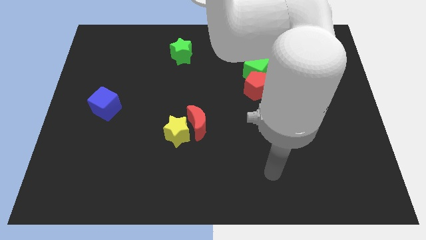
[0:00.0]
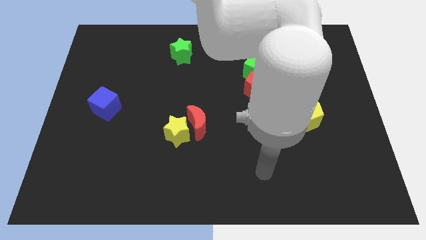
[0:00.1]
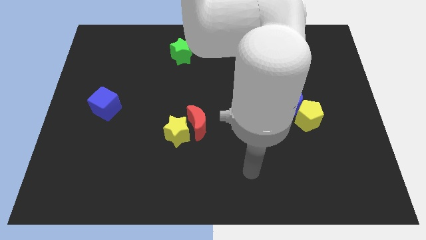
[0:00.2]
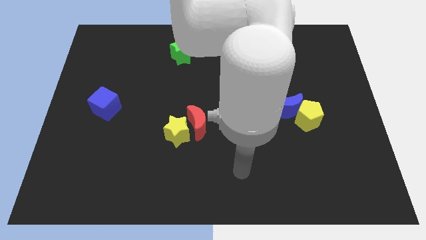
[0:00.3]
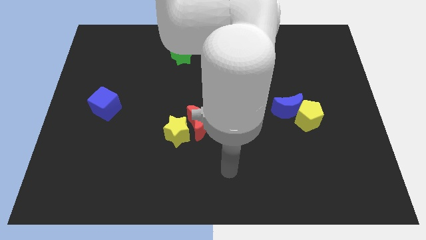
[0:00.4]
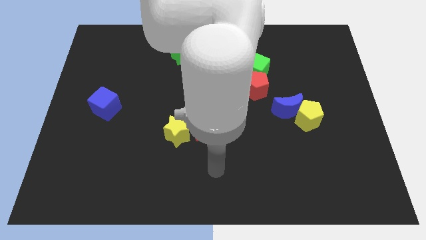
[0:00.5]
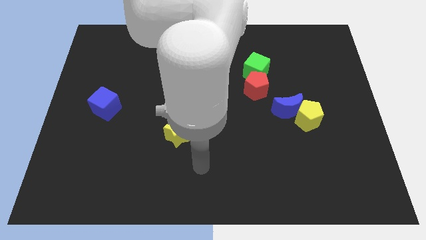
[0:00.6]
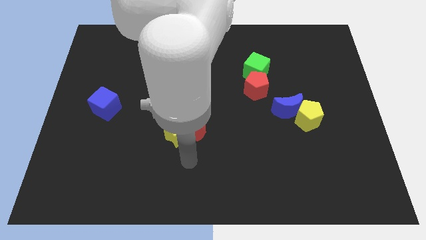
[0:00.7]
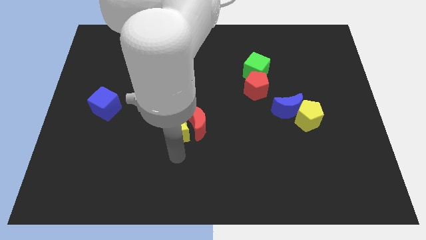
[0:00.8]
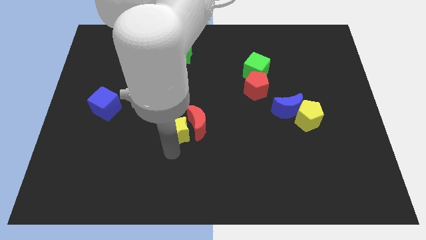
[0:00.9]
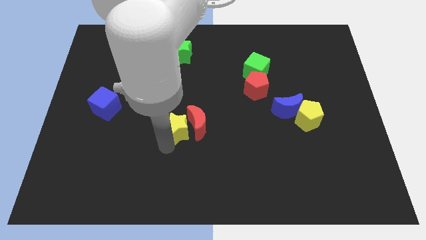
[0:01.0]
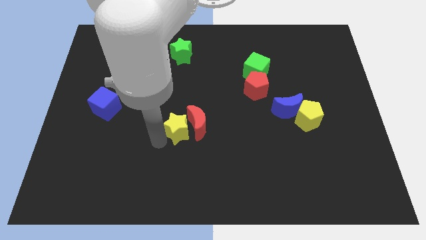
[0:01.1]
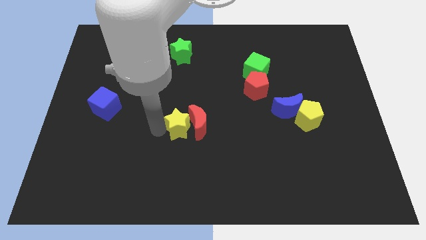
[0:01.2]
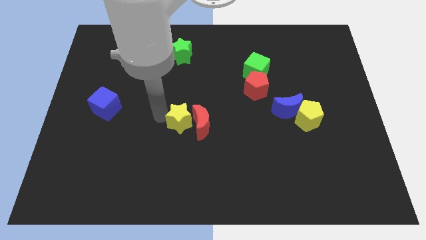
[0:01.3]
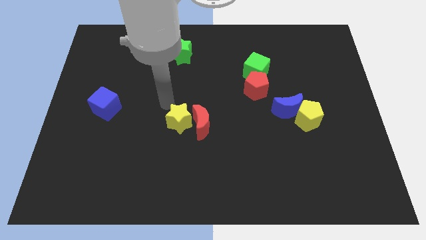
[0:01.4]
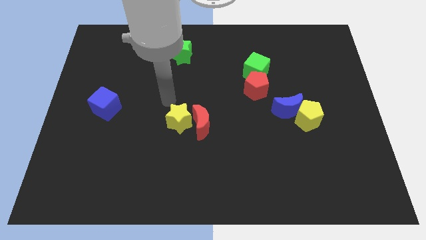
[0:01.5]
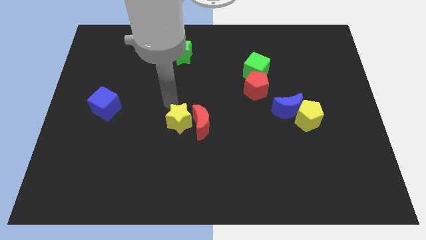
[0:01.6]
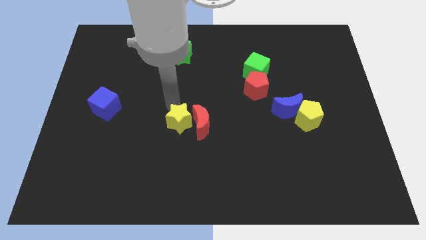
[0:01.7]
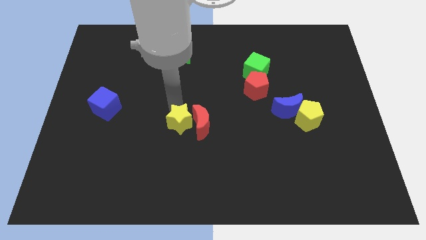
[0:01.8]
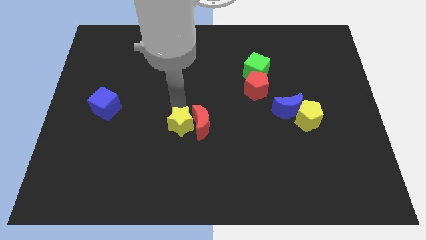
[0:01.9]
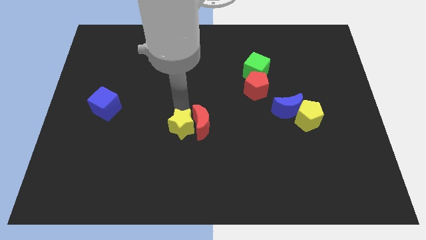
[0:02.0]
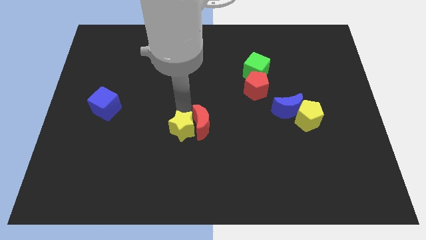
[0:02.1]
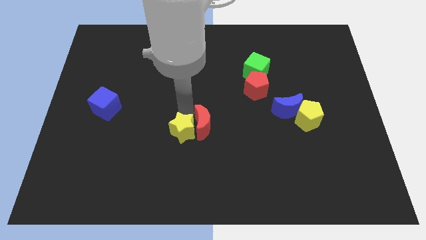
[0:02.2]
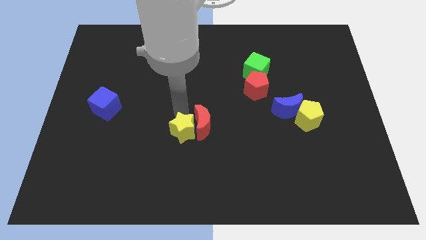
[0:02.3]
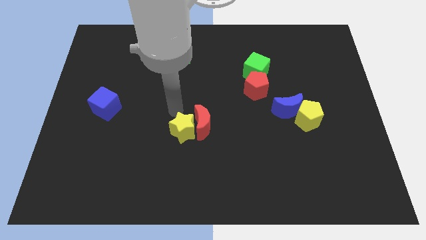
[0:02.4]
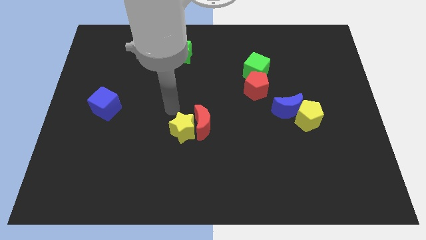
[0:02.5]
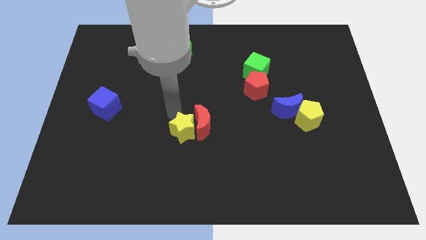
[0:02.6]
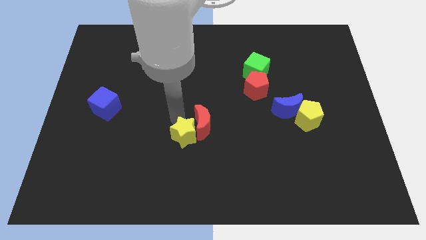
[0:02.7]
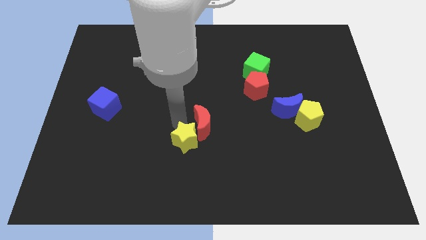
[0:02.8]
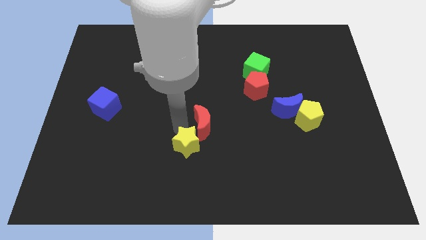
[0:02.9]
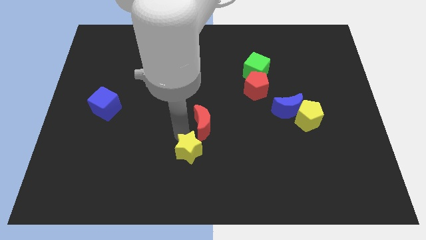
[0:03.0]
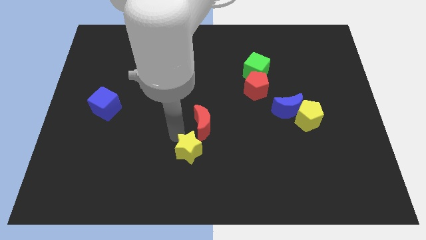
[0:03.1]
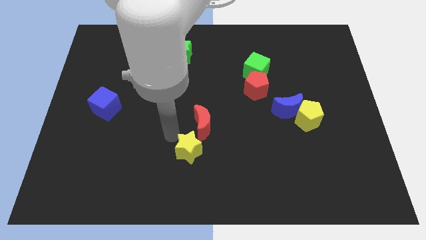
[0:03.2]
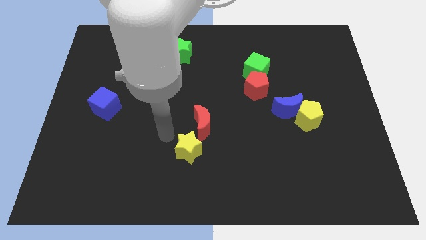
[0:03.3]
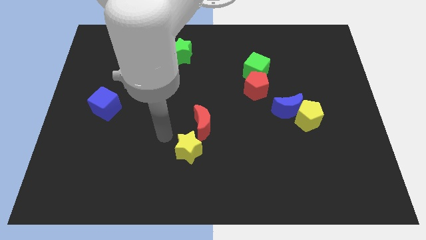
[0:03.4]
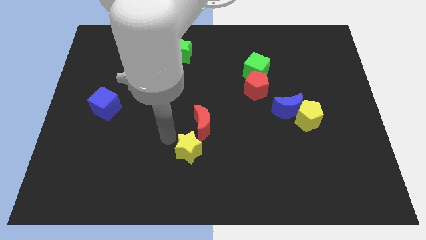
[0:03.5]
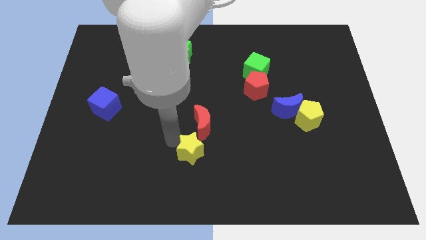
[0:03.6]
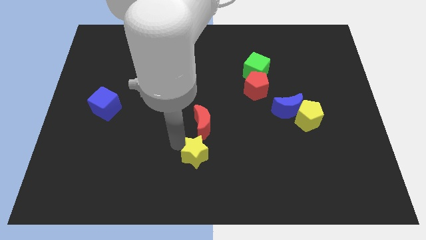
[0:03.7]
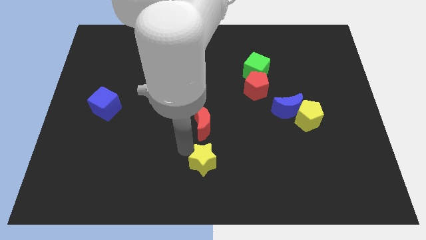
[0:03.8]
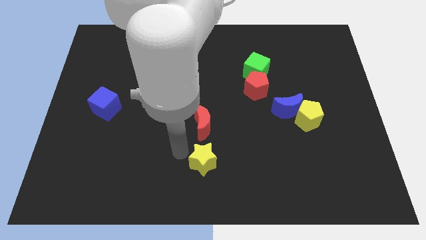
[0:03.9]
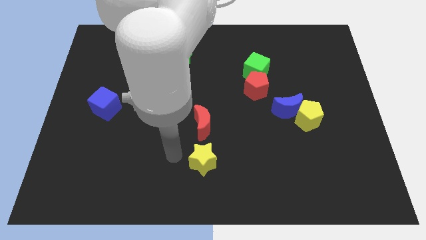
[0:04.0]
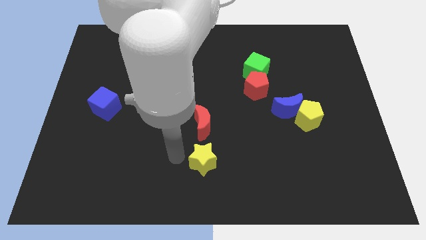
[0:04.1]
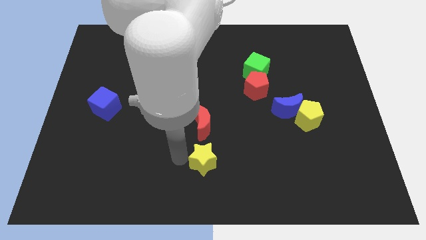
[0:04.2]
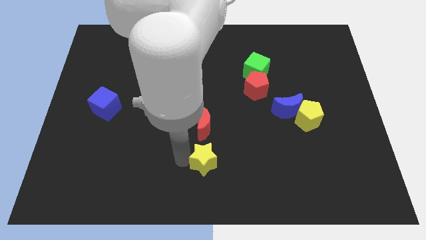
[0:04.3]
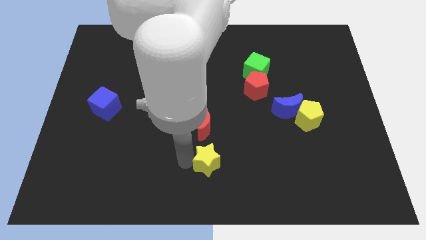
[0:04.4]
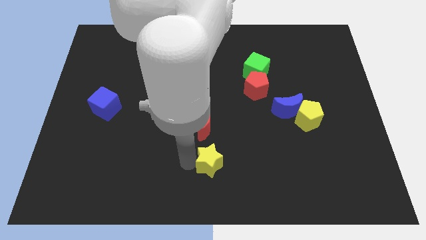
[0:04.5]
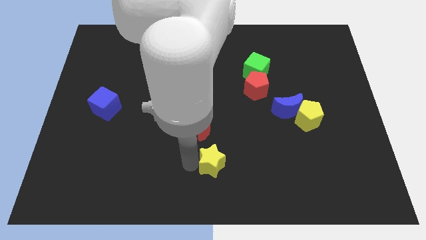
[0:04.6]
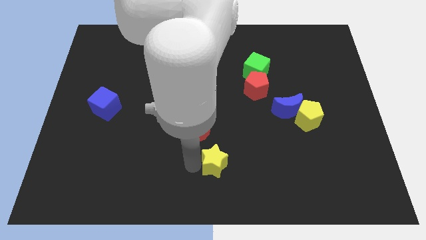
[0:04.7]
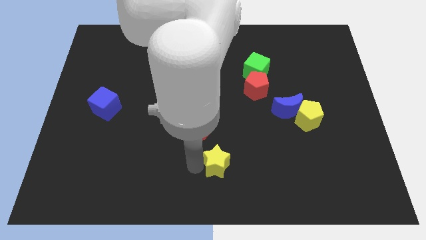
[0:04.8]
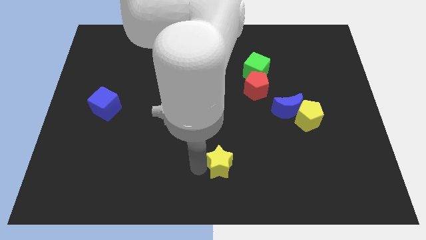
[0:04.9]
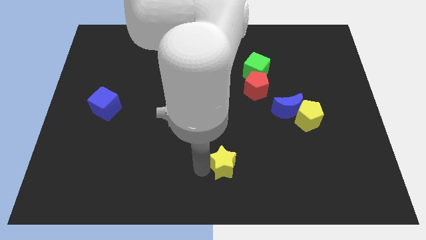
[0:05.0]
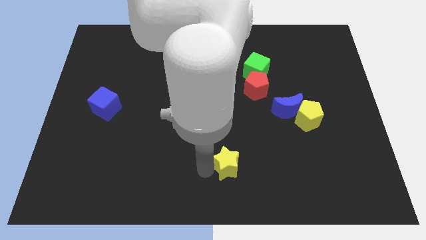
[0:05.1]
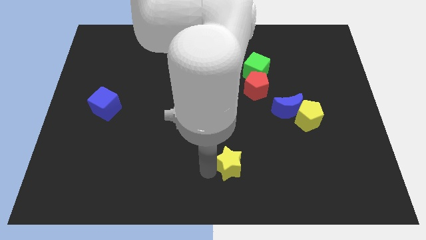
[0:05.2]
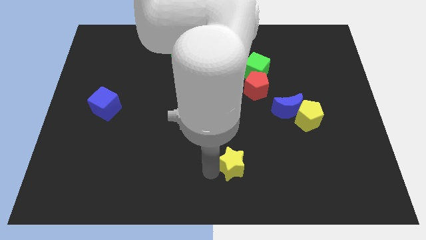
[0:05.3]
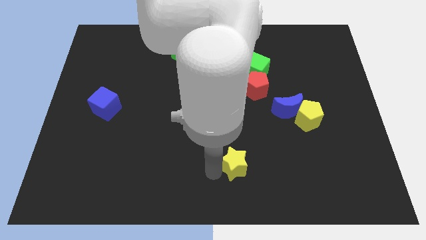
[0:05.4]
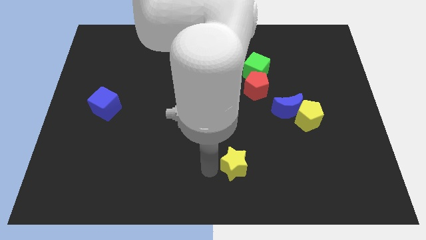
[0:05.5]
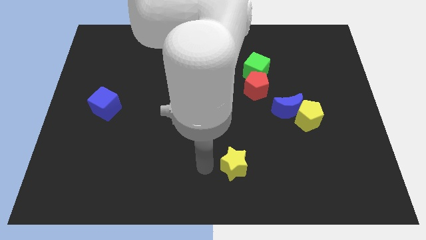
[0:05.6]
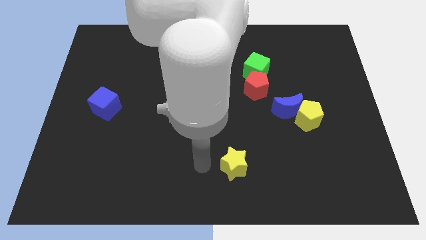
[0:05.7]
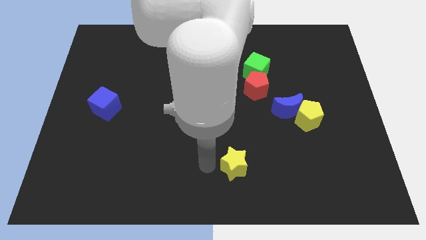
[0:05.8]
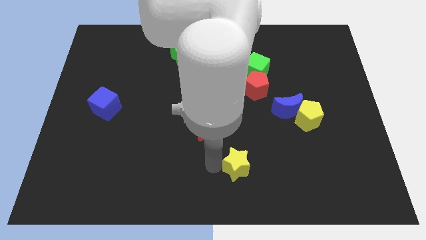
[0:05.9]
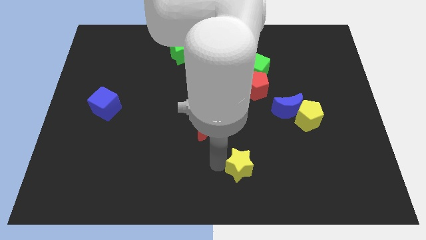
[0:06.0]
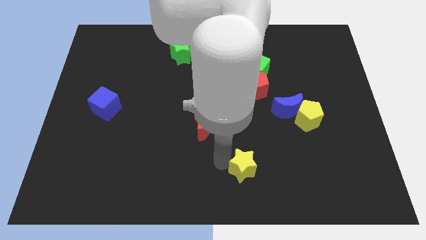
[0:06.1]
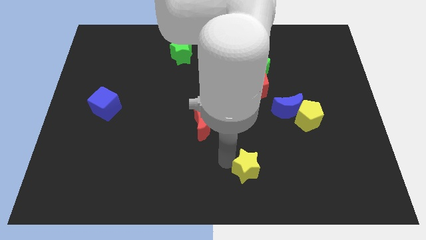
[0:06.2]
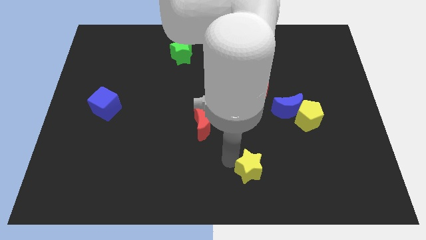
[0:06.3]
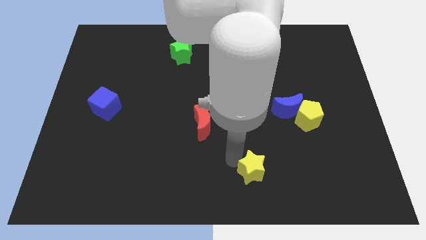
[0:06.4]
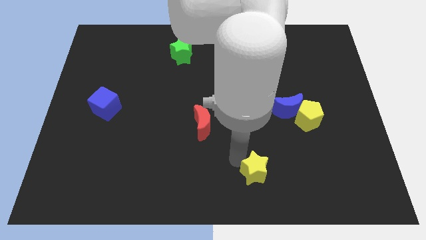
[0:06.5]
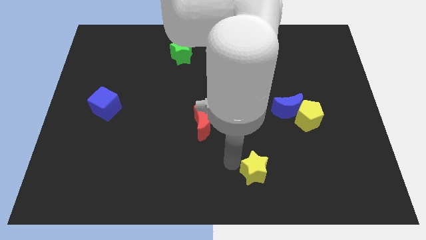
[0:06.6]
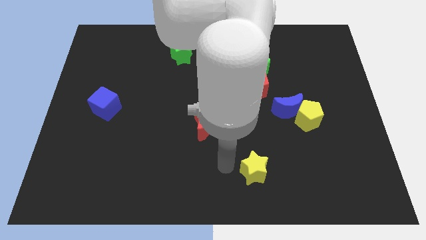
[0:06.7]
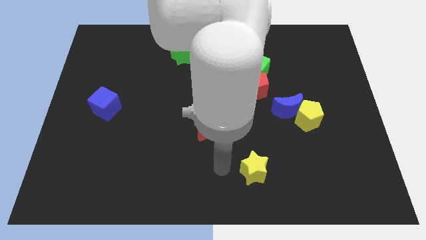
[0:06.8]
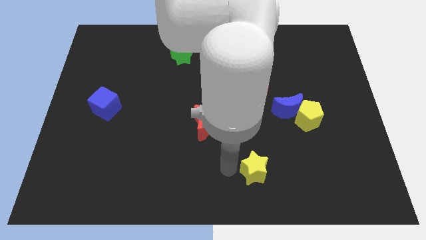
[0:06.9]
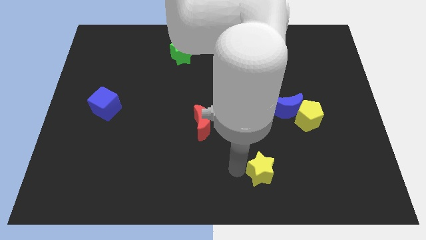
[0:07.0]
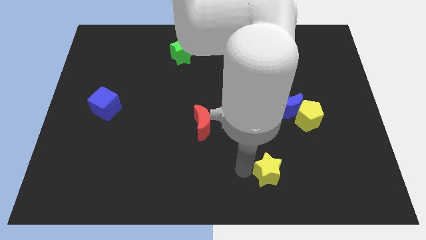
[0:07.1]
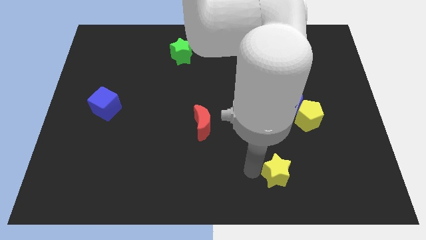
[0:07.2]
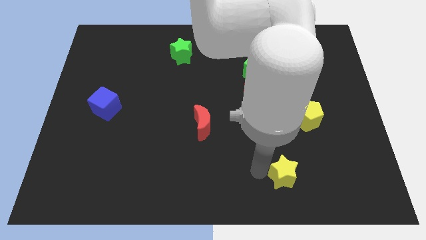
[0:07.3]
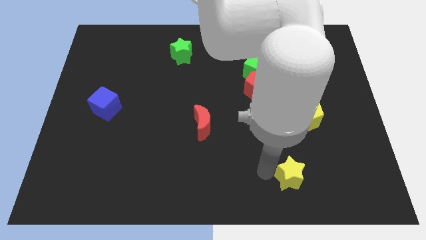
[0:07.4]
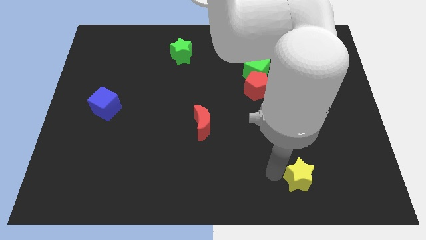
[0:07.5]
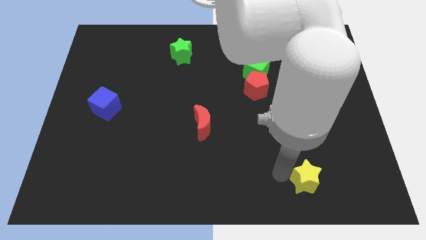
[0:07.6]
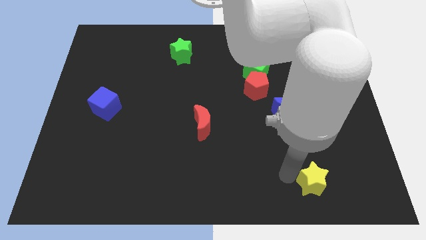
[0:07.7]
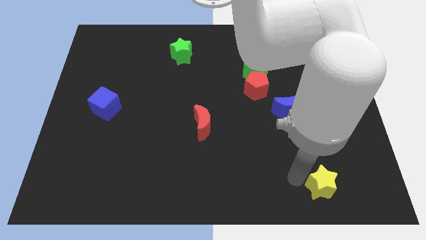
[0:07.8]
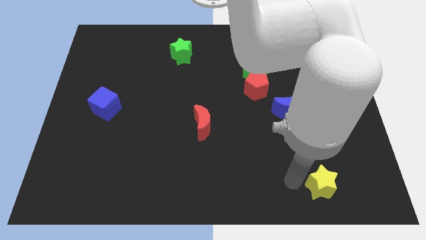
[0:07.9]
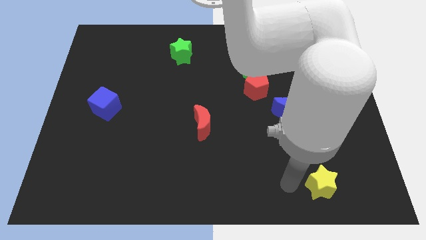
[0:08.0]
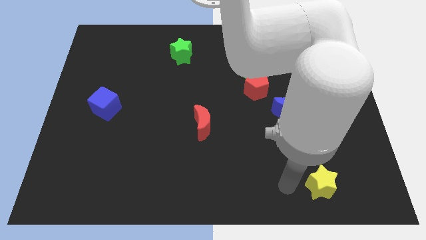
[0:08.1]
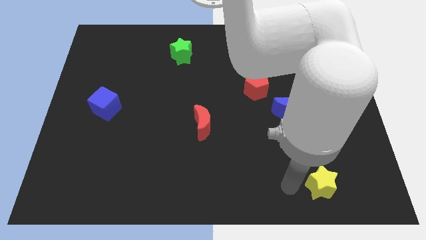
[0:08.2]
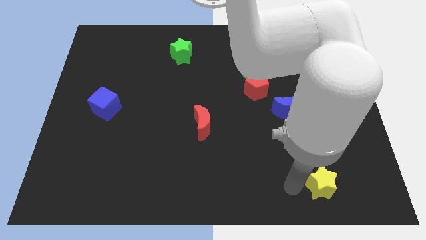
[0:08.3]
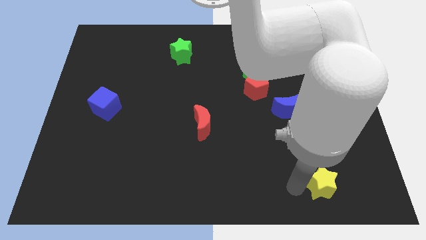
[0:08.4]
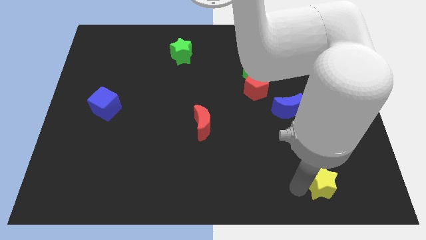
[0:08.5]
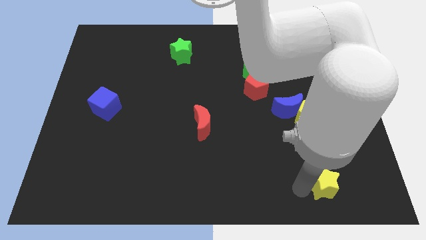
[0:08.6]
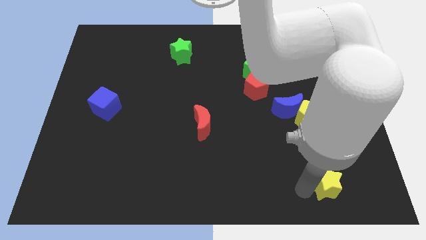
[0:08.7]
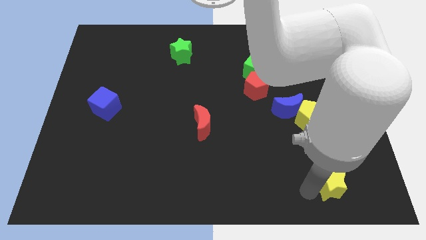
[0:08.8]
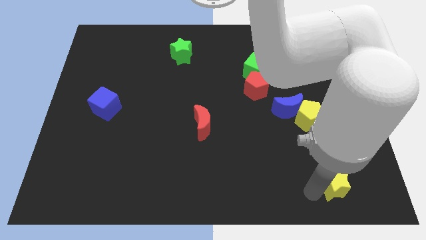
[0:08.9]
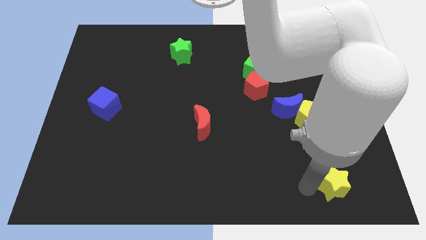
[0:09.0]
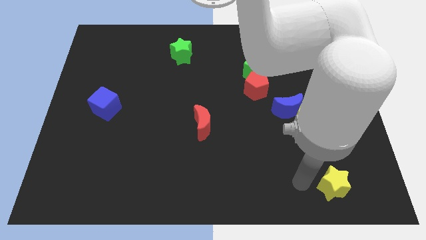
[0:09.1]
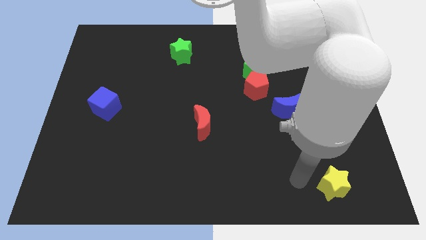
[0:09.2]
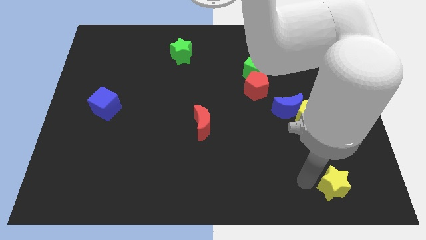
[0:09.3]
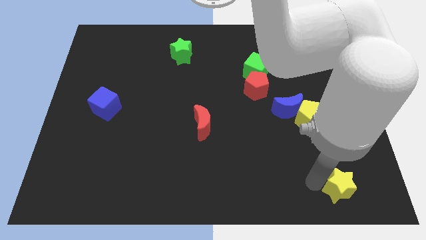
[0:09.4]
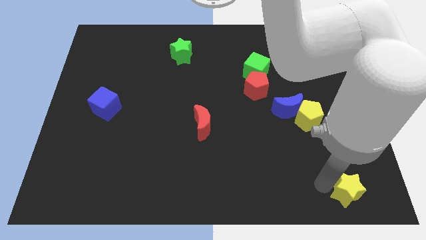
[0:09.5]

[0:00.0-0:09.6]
put the yellow star to the bottom right
